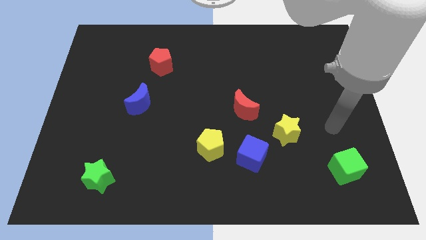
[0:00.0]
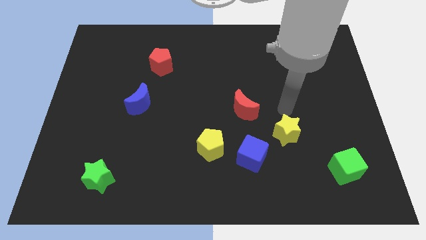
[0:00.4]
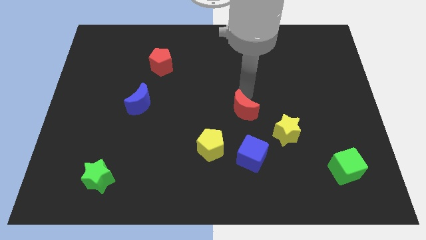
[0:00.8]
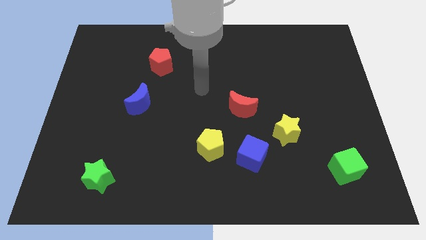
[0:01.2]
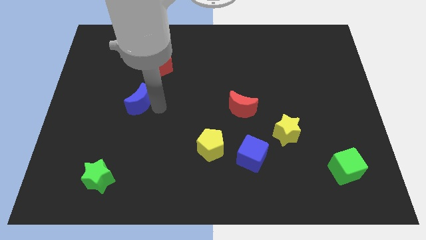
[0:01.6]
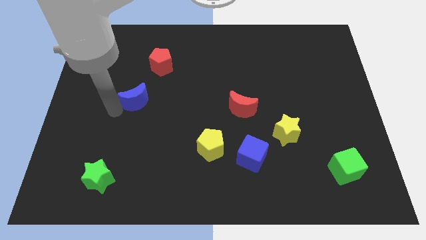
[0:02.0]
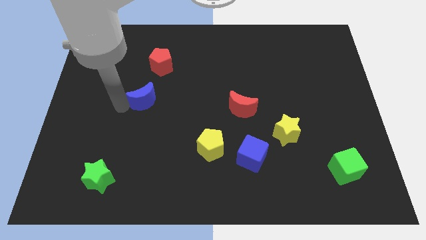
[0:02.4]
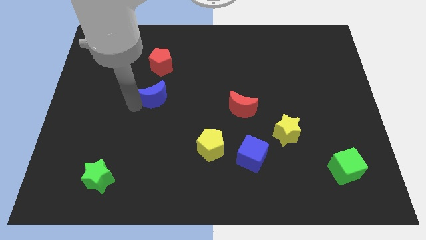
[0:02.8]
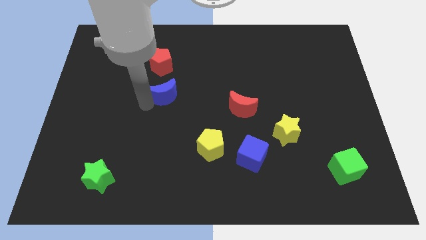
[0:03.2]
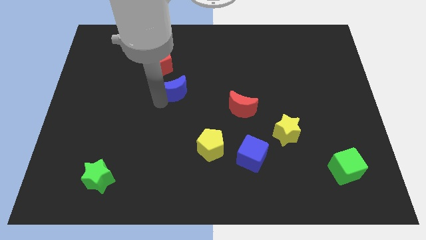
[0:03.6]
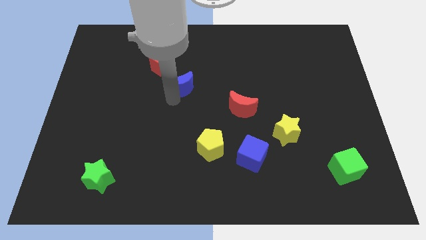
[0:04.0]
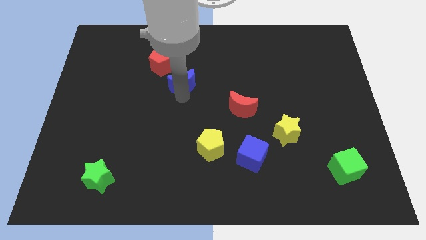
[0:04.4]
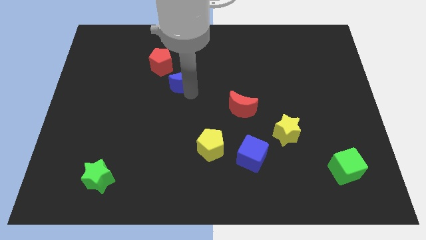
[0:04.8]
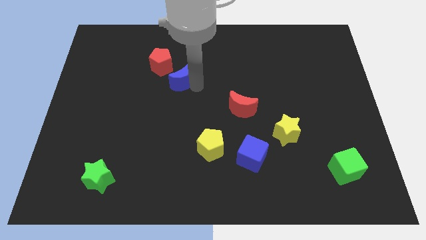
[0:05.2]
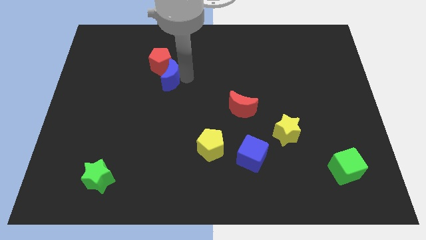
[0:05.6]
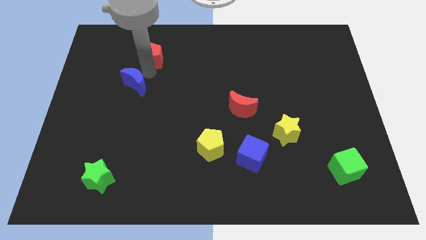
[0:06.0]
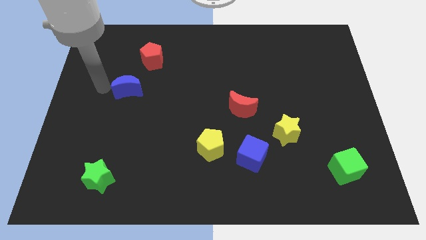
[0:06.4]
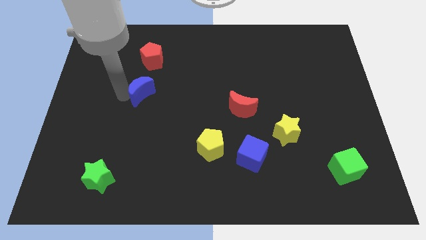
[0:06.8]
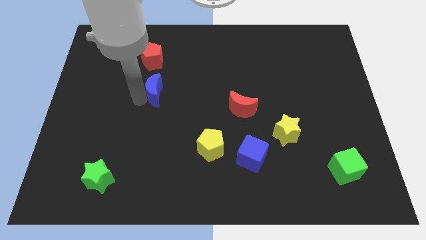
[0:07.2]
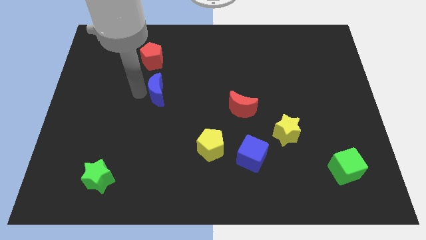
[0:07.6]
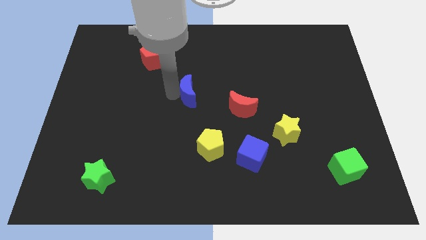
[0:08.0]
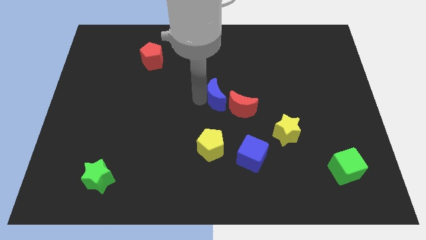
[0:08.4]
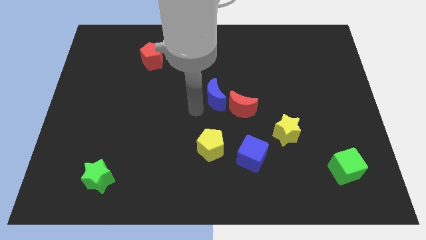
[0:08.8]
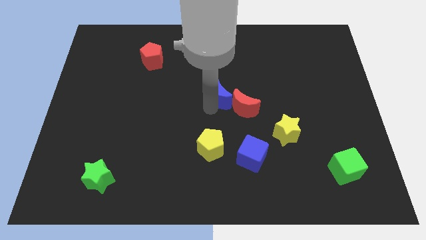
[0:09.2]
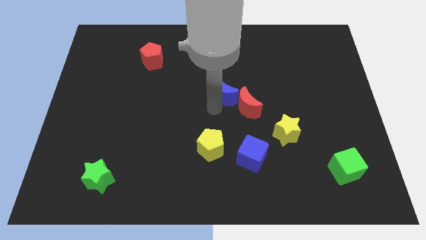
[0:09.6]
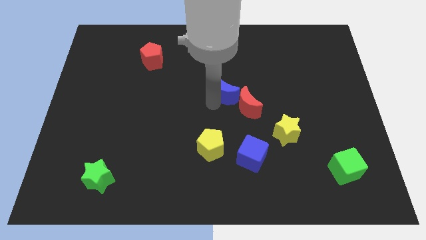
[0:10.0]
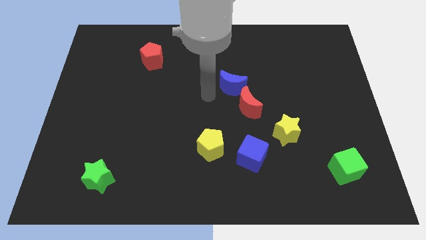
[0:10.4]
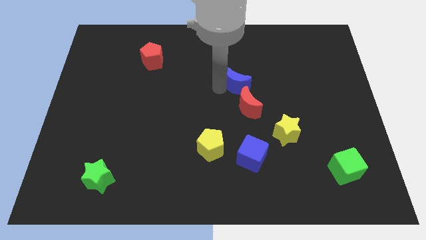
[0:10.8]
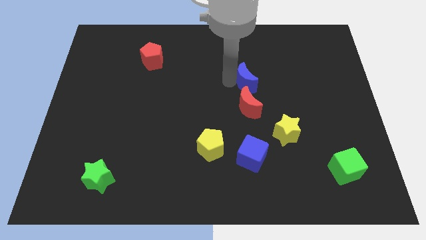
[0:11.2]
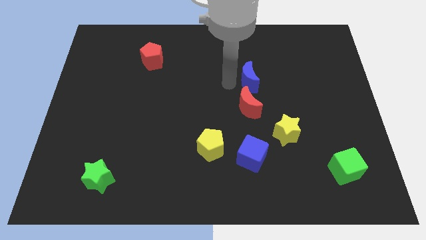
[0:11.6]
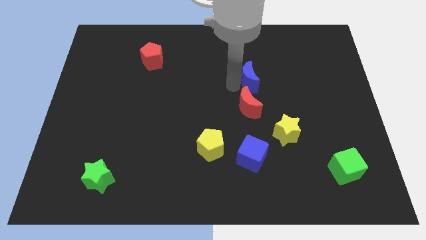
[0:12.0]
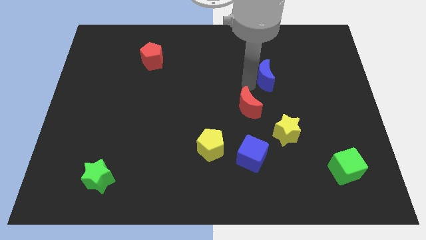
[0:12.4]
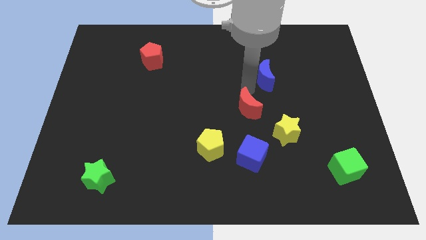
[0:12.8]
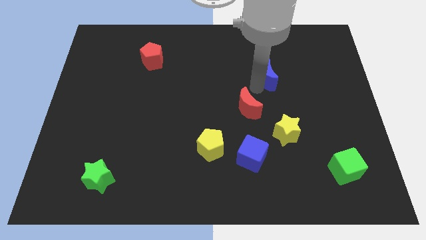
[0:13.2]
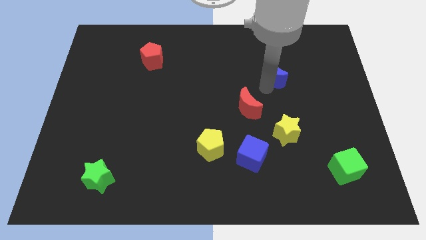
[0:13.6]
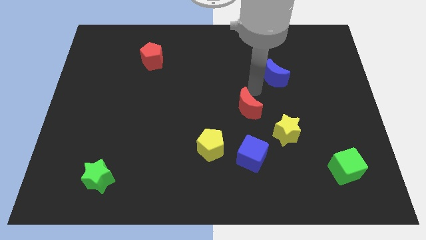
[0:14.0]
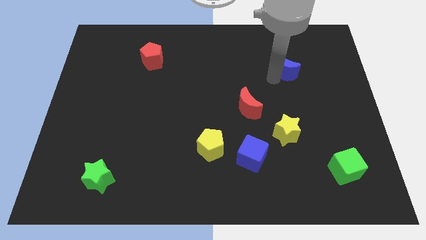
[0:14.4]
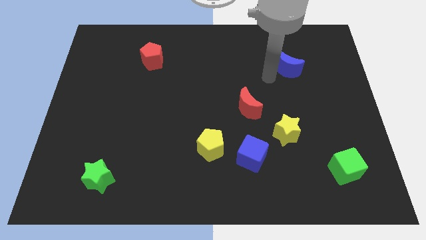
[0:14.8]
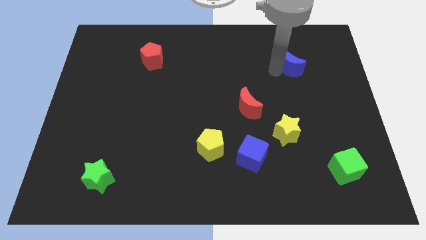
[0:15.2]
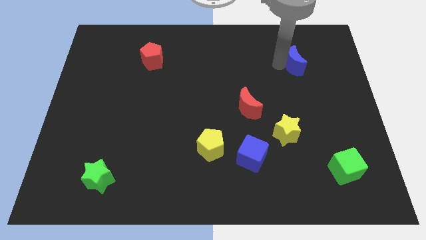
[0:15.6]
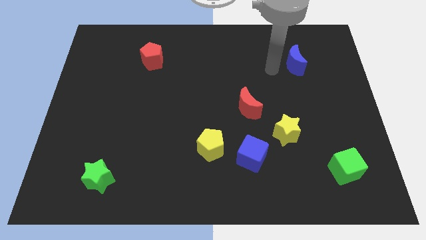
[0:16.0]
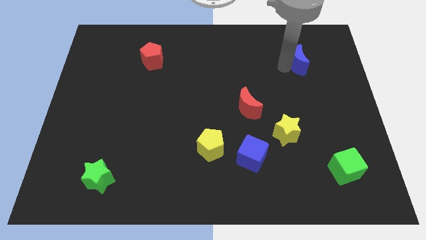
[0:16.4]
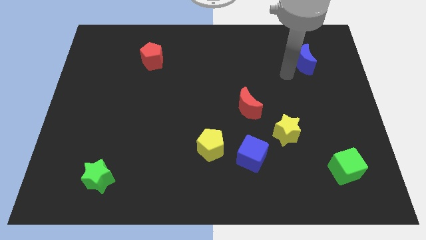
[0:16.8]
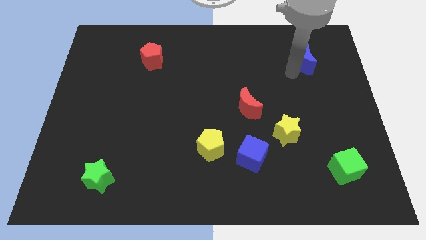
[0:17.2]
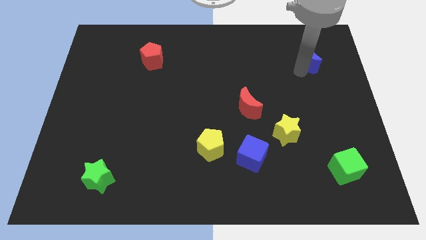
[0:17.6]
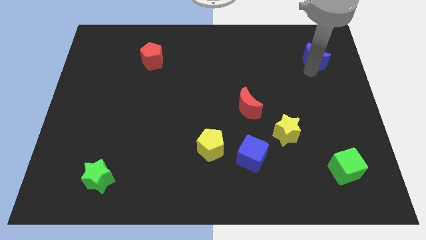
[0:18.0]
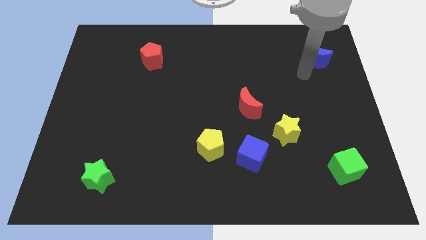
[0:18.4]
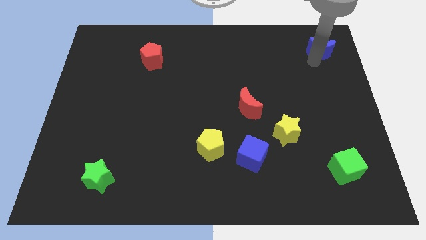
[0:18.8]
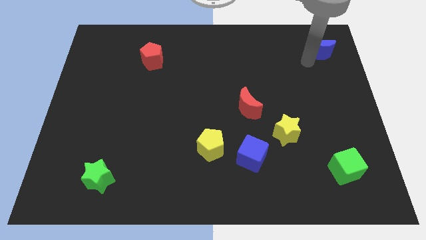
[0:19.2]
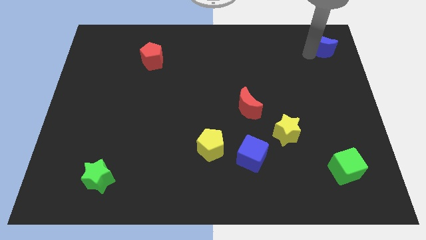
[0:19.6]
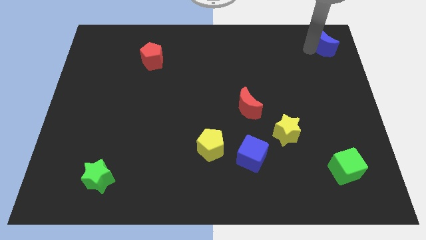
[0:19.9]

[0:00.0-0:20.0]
slide the blue moon to the upper right corner

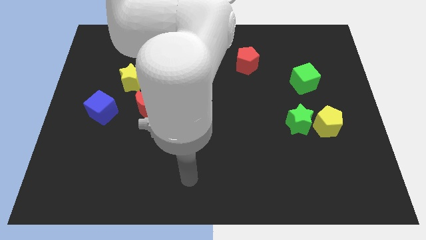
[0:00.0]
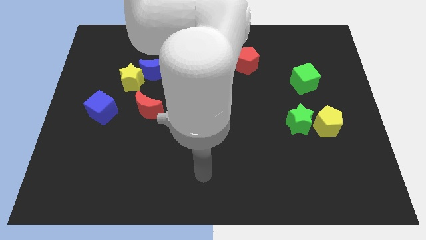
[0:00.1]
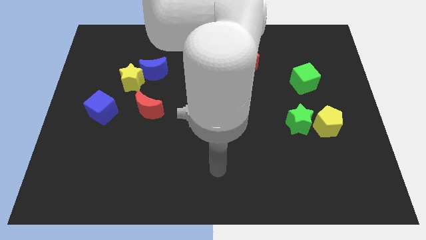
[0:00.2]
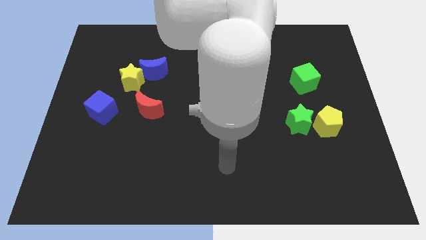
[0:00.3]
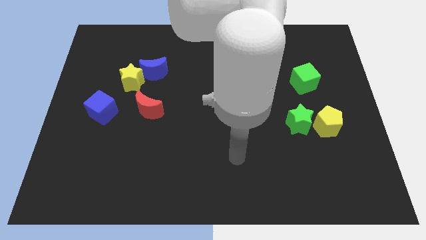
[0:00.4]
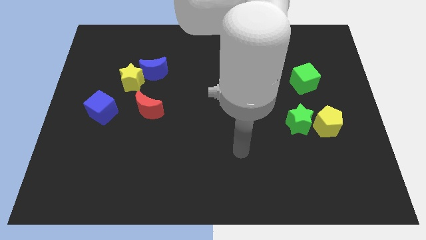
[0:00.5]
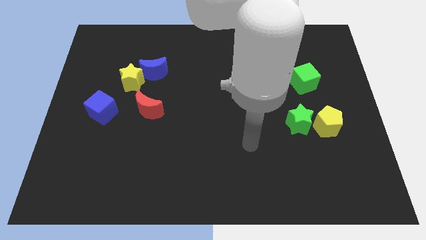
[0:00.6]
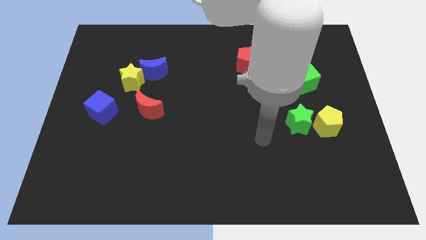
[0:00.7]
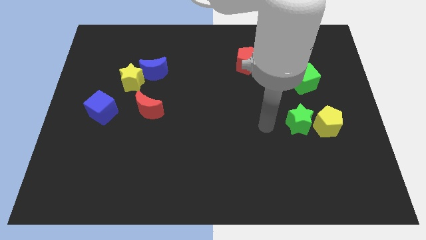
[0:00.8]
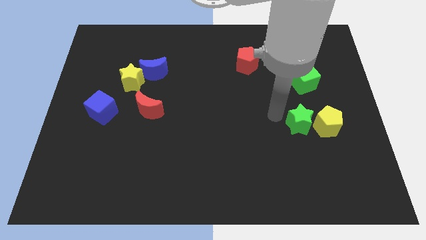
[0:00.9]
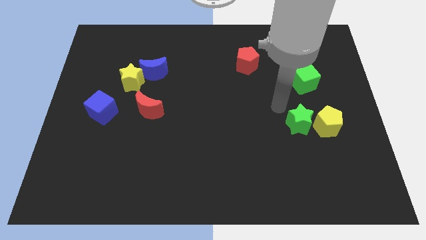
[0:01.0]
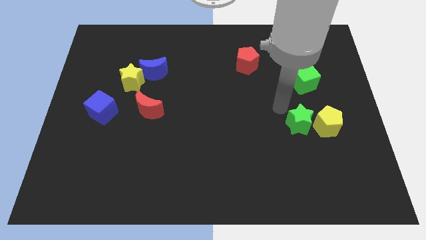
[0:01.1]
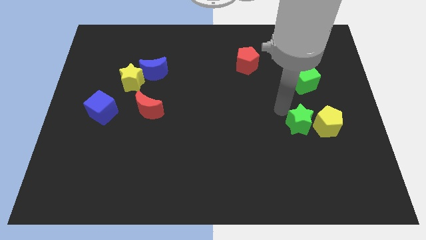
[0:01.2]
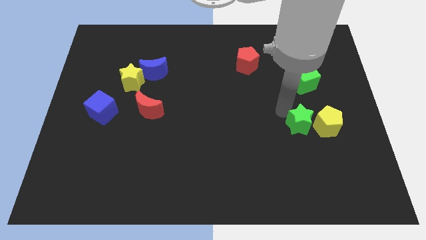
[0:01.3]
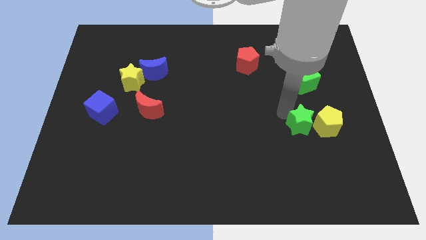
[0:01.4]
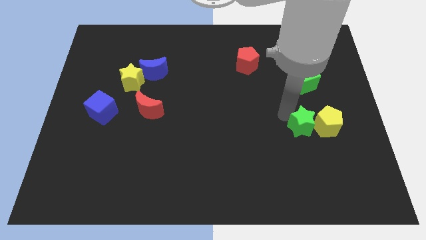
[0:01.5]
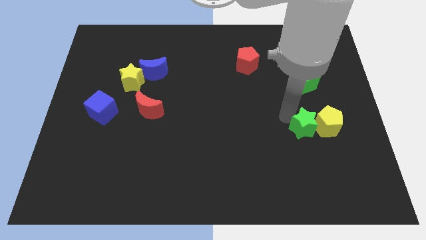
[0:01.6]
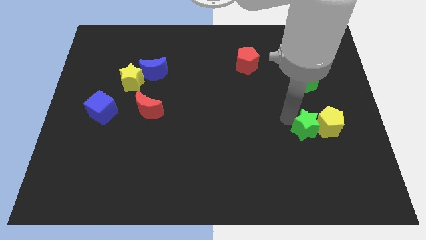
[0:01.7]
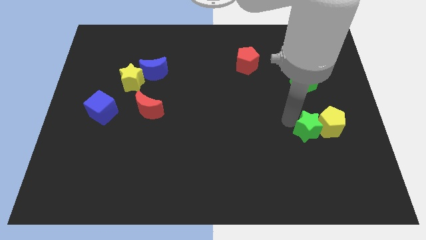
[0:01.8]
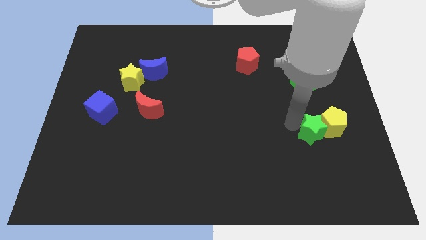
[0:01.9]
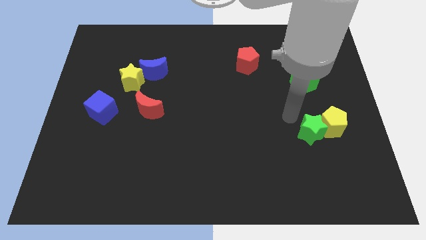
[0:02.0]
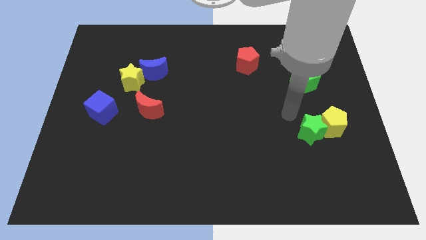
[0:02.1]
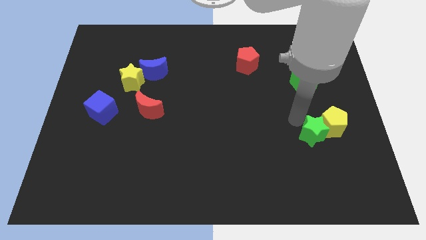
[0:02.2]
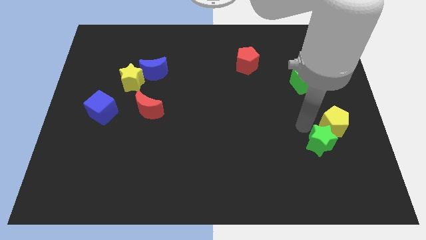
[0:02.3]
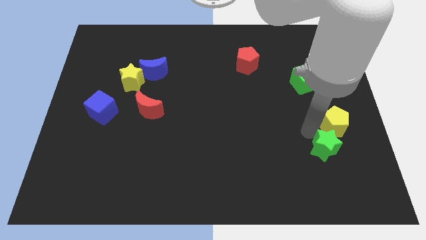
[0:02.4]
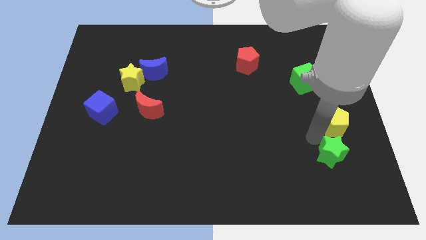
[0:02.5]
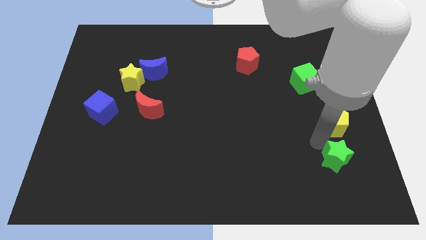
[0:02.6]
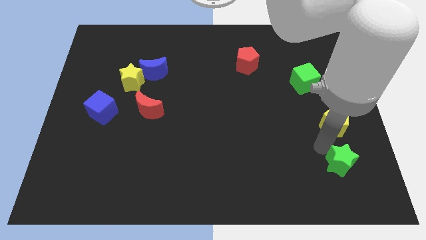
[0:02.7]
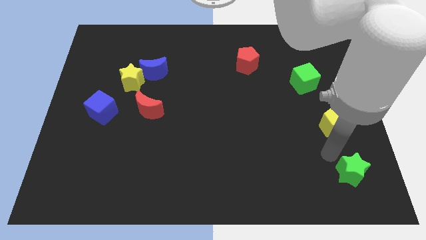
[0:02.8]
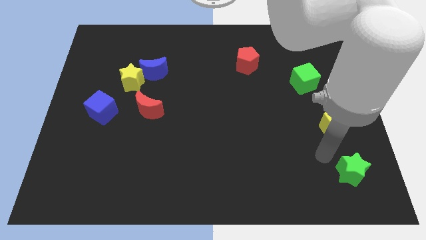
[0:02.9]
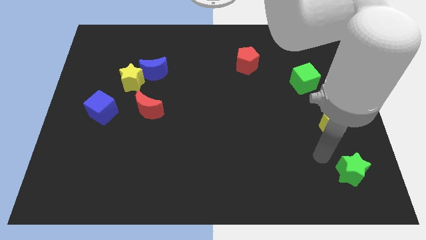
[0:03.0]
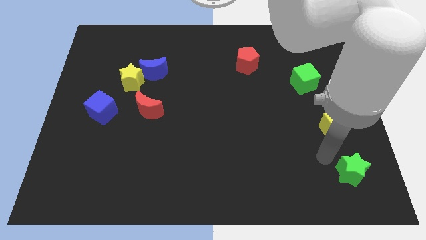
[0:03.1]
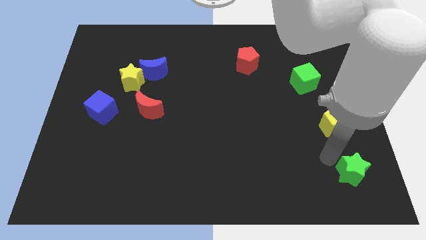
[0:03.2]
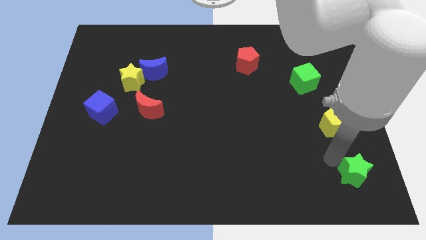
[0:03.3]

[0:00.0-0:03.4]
move the green star to the lower right corner
